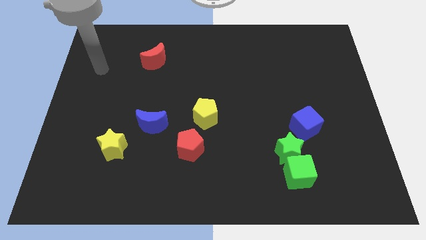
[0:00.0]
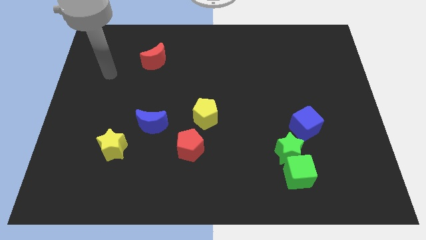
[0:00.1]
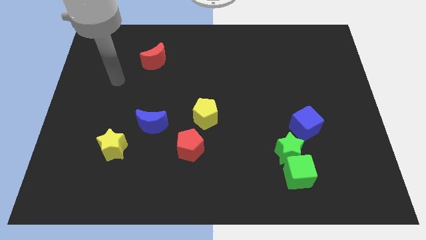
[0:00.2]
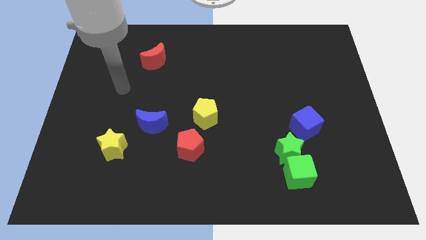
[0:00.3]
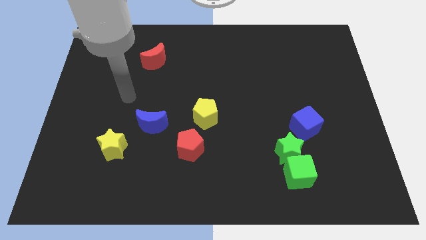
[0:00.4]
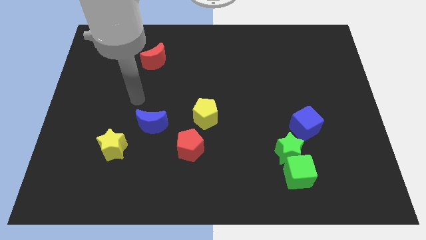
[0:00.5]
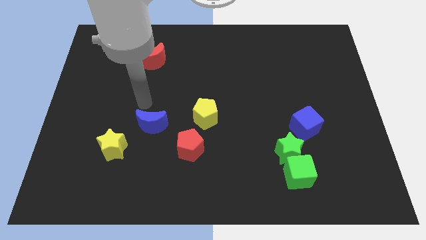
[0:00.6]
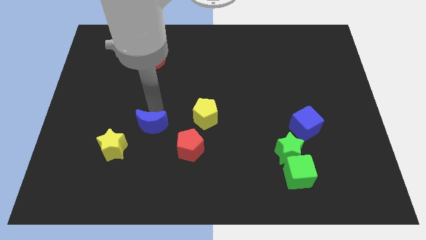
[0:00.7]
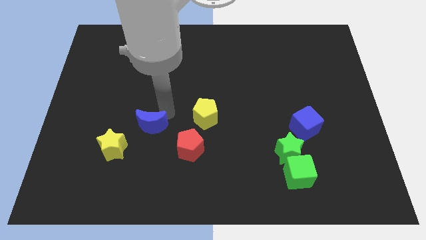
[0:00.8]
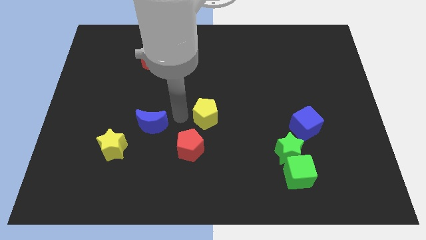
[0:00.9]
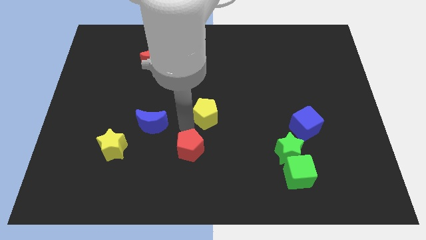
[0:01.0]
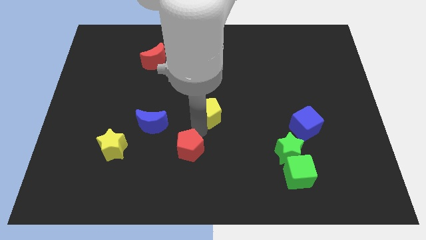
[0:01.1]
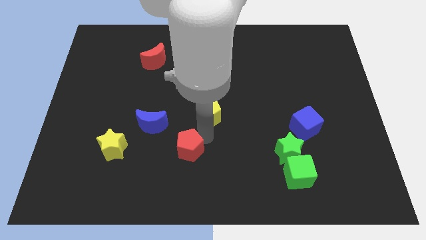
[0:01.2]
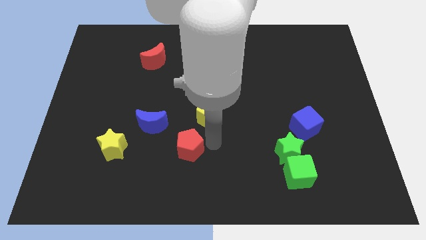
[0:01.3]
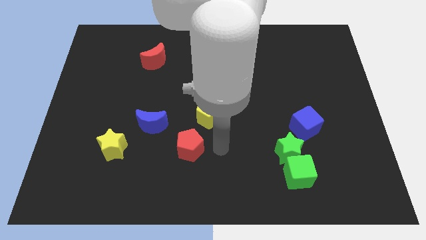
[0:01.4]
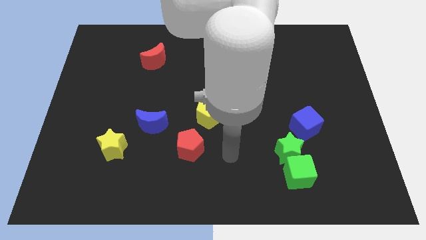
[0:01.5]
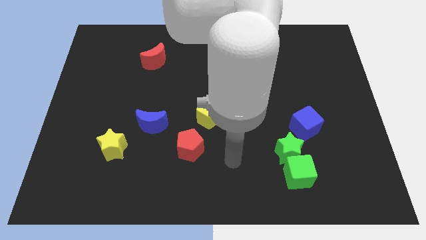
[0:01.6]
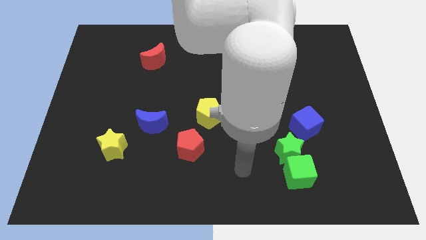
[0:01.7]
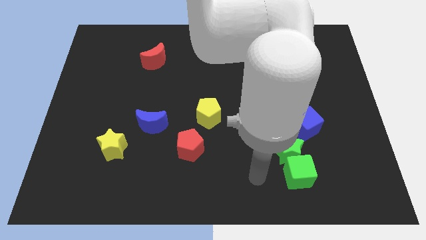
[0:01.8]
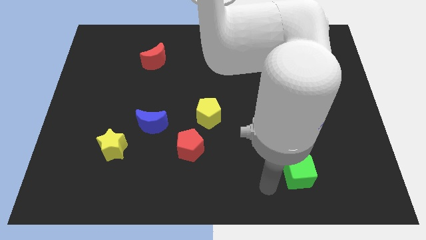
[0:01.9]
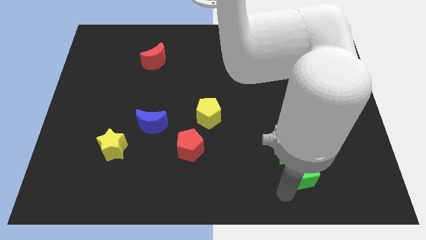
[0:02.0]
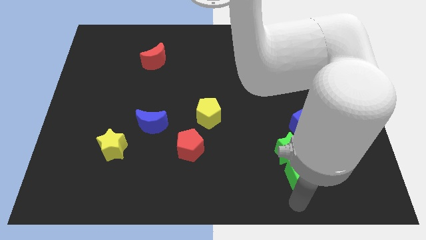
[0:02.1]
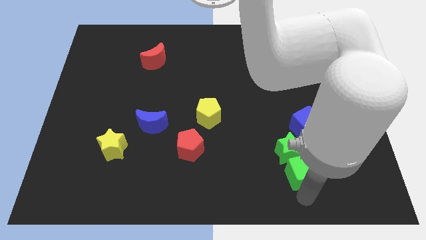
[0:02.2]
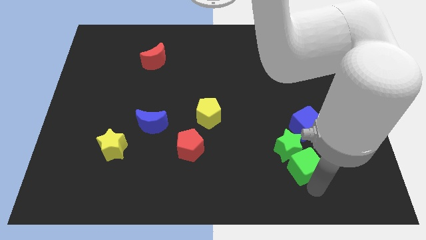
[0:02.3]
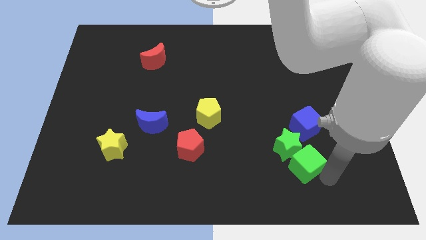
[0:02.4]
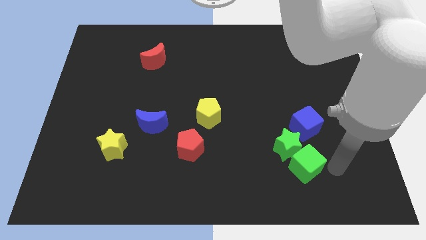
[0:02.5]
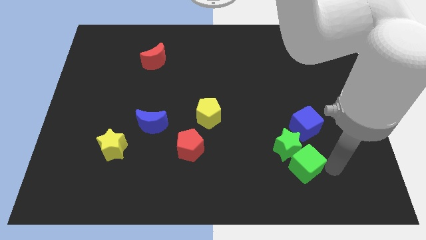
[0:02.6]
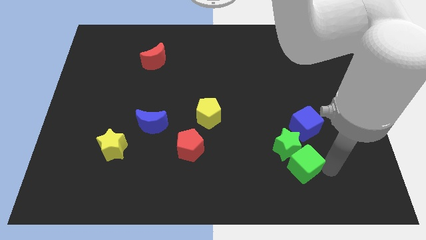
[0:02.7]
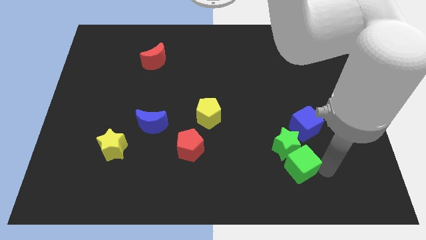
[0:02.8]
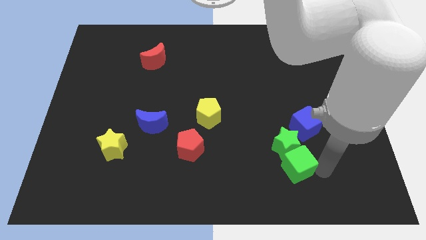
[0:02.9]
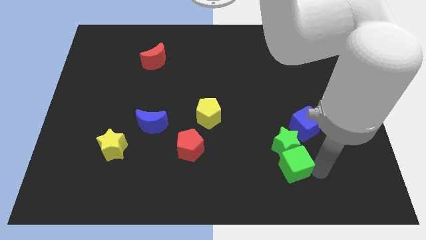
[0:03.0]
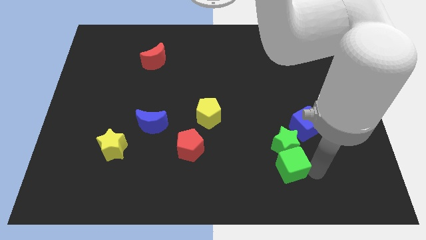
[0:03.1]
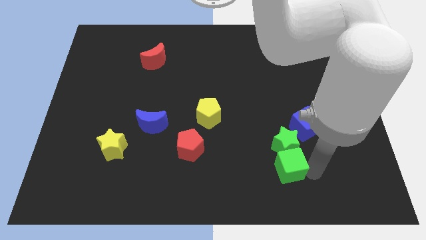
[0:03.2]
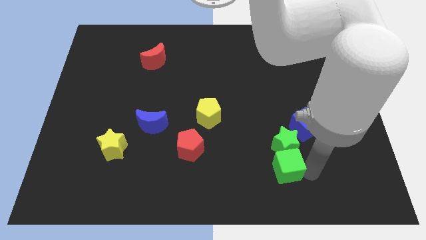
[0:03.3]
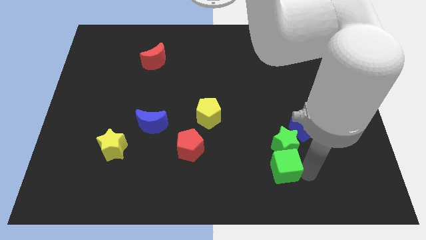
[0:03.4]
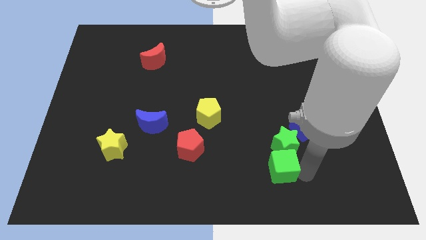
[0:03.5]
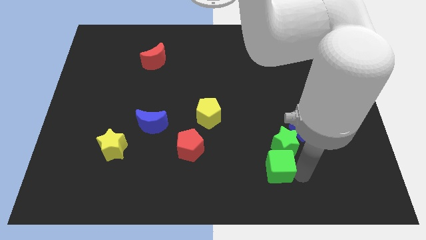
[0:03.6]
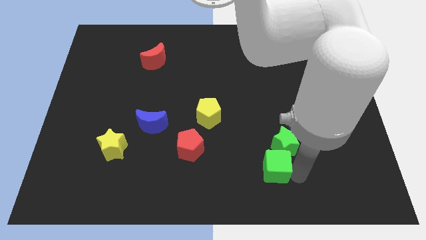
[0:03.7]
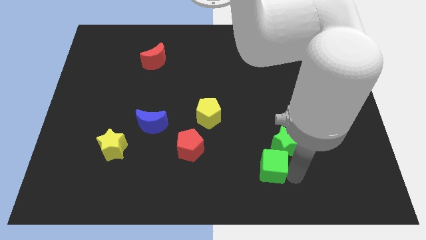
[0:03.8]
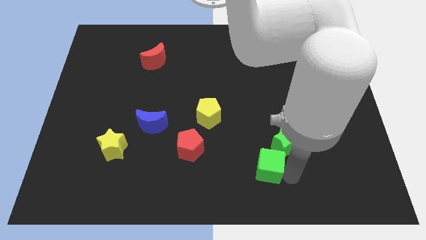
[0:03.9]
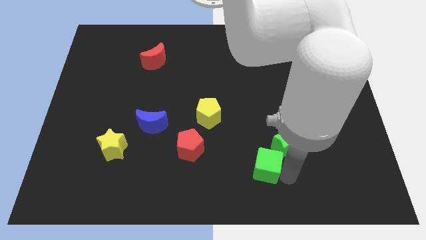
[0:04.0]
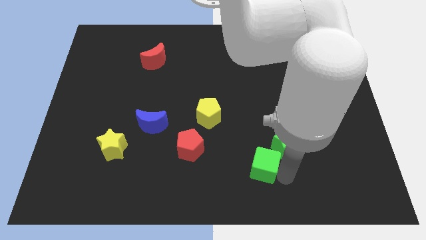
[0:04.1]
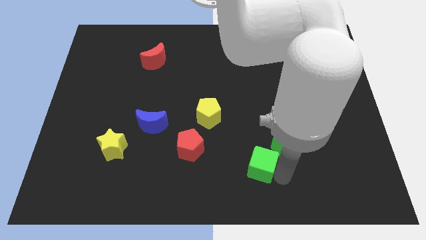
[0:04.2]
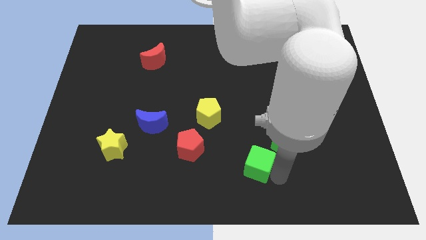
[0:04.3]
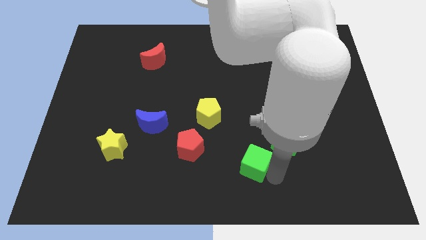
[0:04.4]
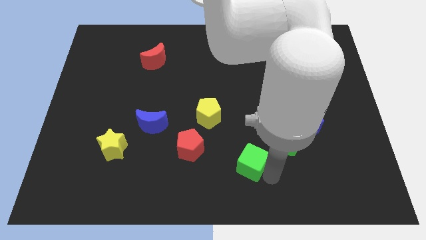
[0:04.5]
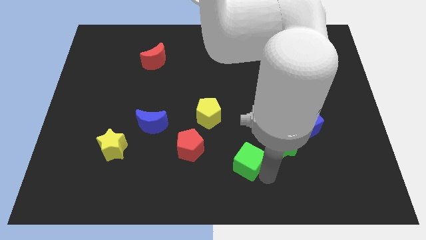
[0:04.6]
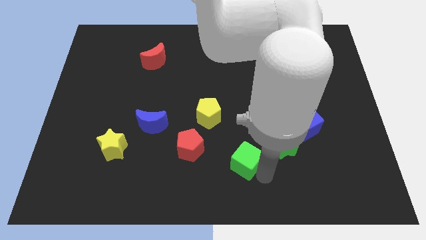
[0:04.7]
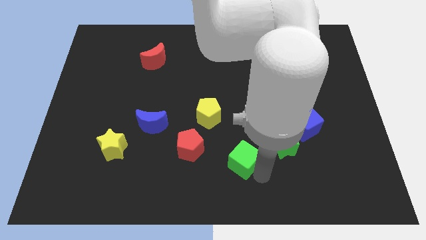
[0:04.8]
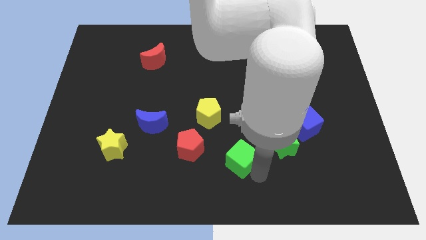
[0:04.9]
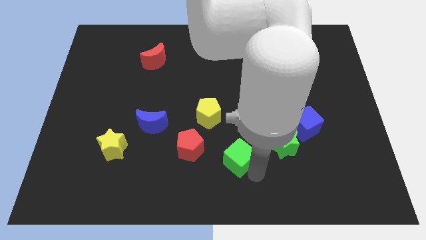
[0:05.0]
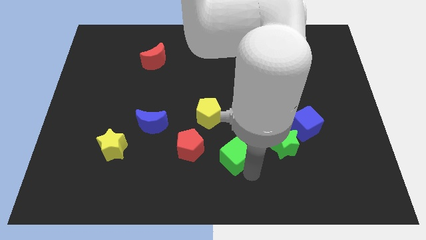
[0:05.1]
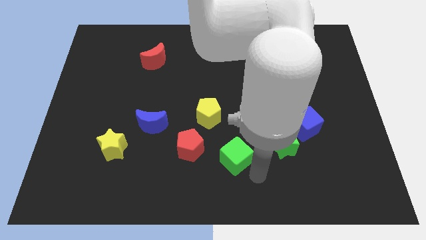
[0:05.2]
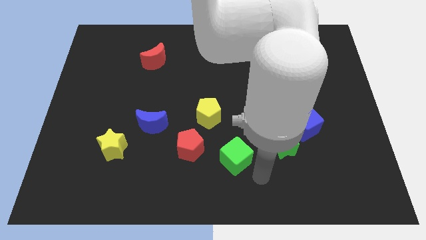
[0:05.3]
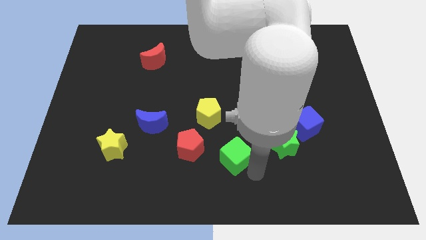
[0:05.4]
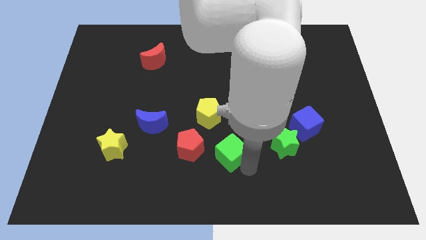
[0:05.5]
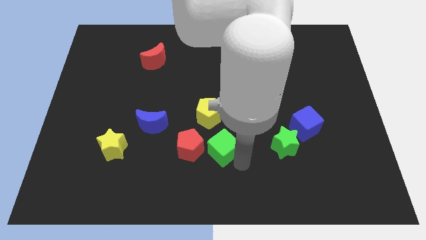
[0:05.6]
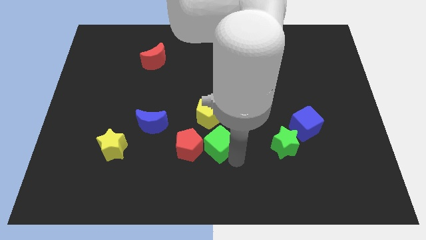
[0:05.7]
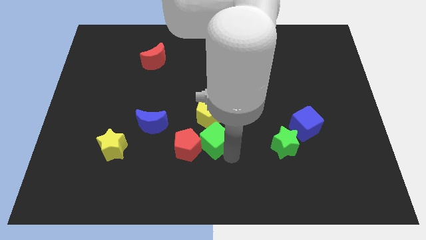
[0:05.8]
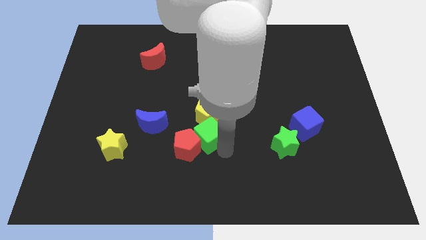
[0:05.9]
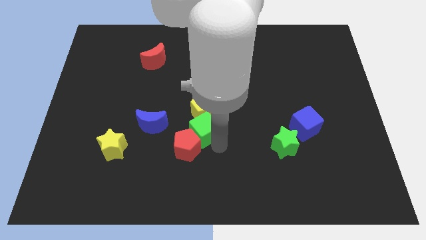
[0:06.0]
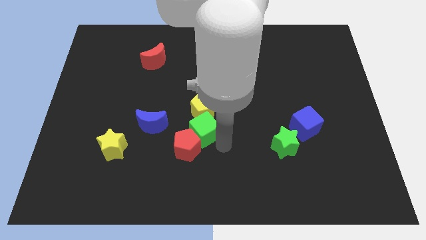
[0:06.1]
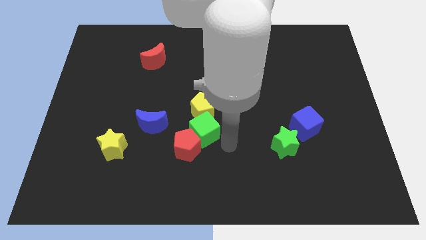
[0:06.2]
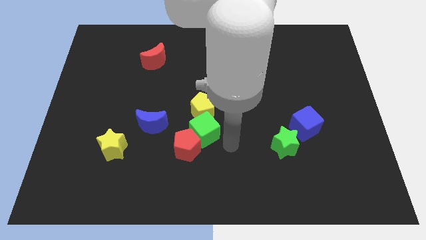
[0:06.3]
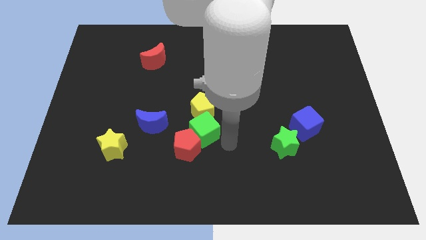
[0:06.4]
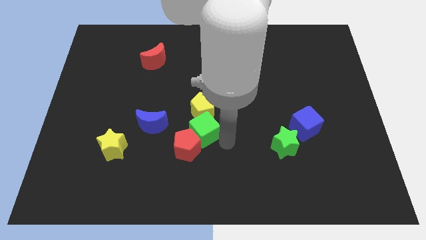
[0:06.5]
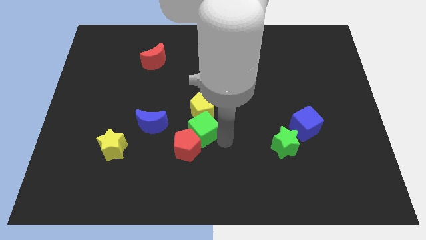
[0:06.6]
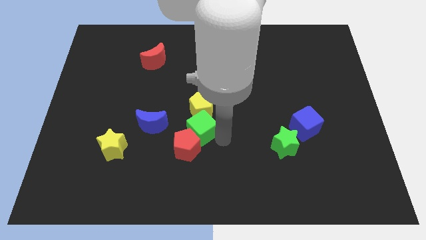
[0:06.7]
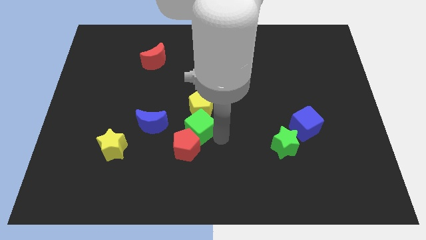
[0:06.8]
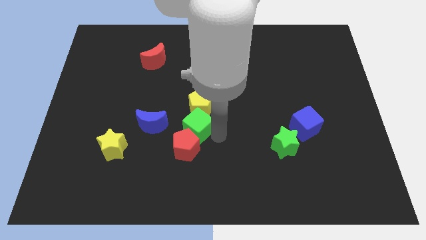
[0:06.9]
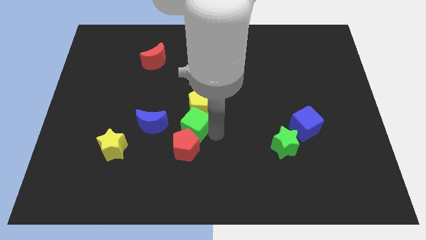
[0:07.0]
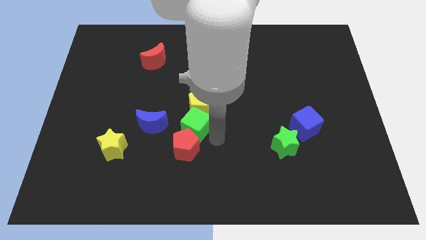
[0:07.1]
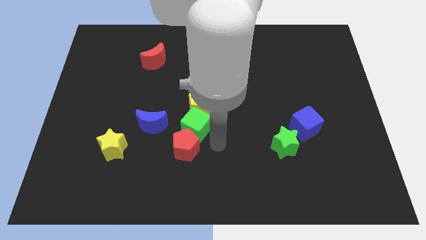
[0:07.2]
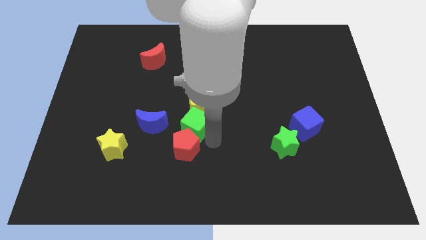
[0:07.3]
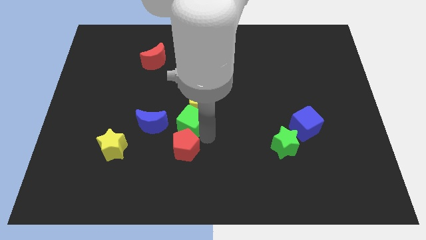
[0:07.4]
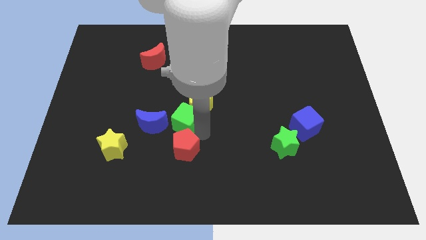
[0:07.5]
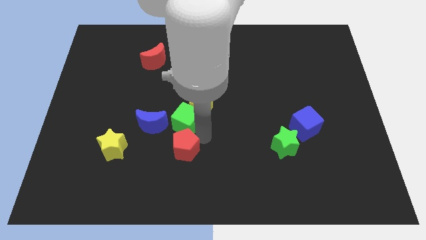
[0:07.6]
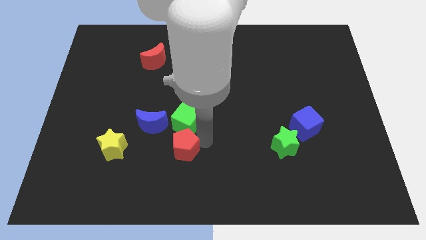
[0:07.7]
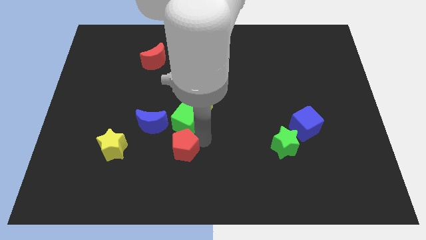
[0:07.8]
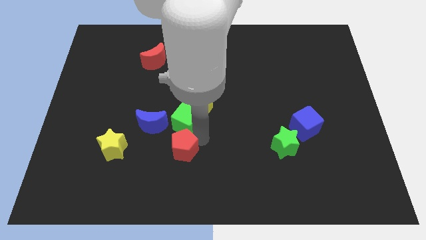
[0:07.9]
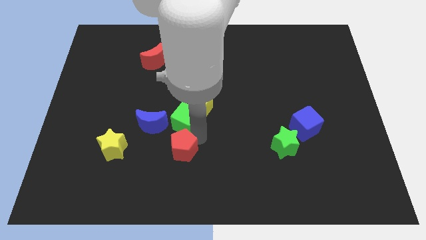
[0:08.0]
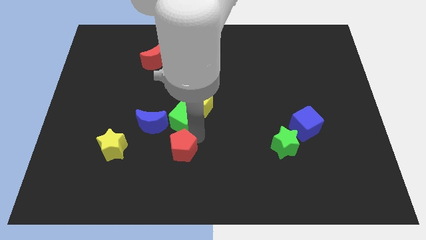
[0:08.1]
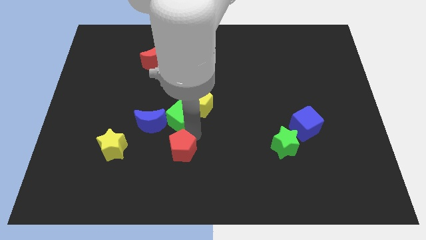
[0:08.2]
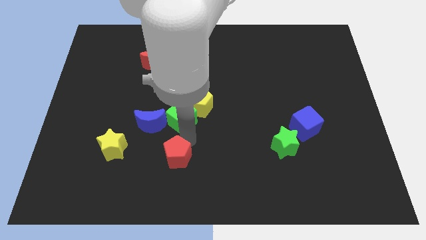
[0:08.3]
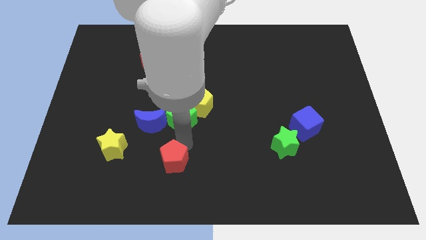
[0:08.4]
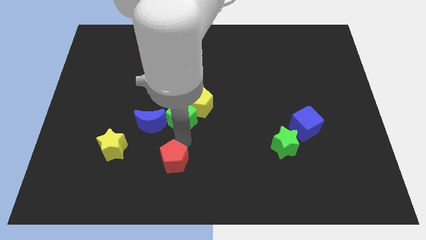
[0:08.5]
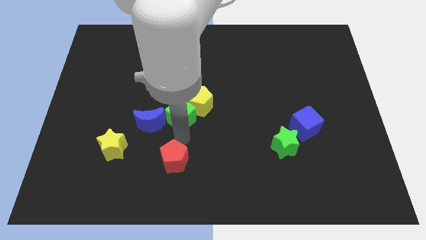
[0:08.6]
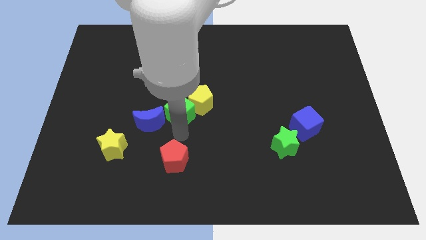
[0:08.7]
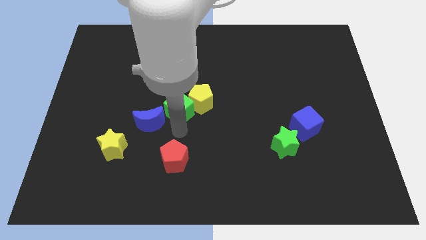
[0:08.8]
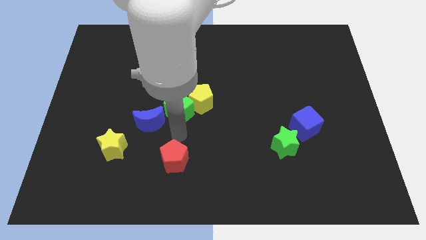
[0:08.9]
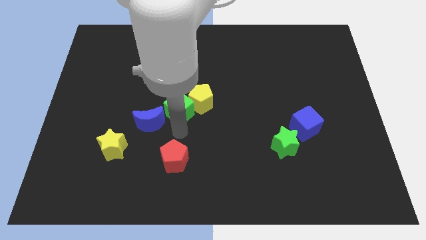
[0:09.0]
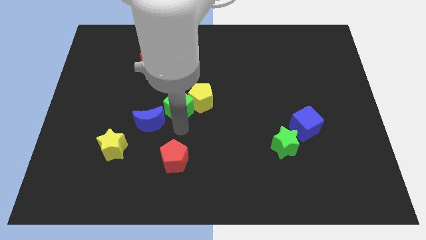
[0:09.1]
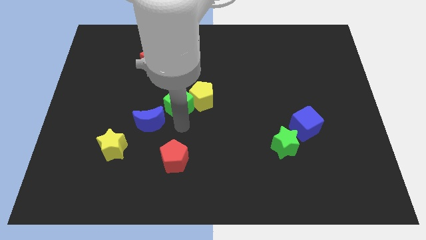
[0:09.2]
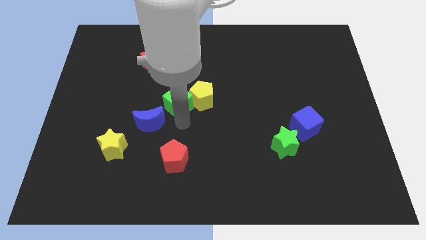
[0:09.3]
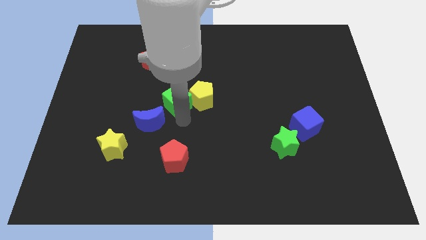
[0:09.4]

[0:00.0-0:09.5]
put the green cube to the top left side of the yellow pentagon
